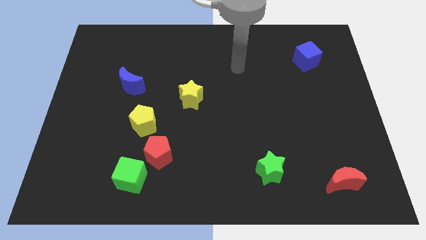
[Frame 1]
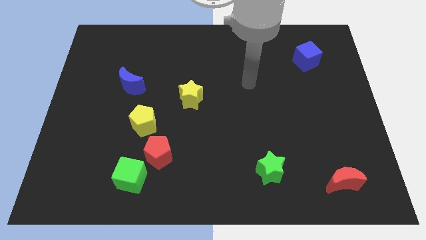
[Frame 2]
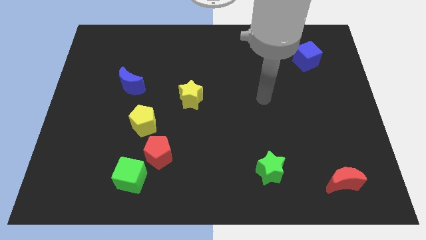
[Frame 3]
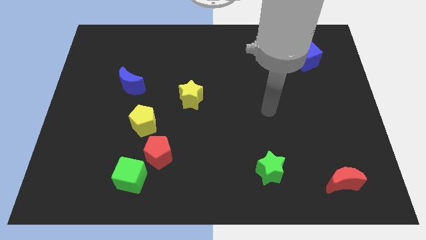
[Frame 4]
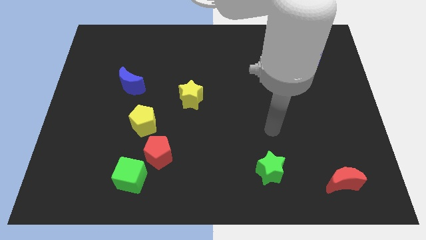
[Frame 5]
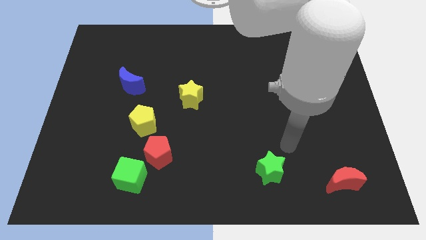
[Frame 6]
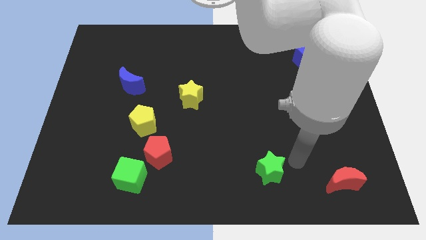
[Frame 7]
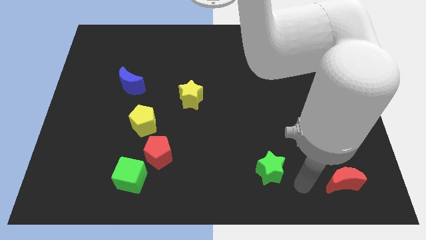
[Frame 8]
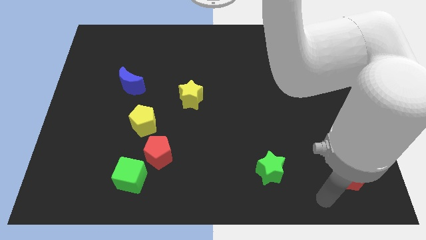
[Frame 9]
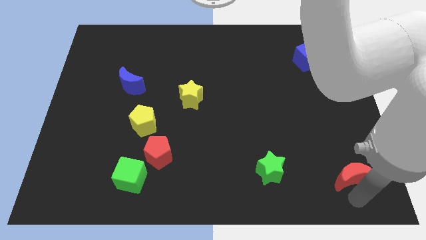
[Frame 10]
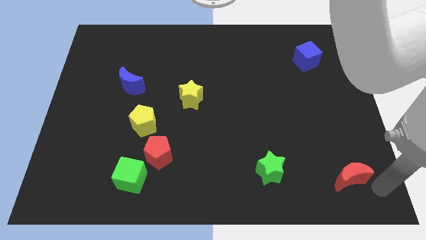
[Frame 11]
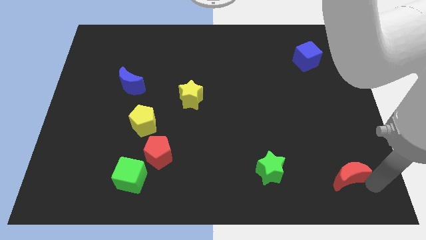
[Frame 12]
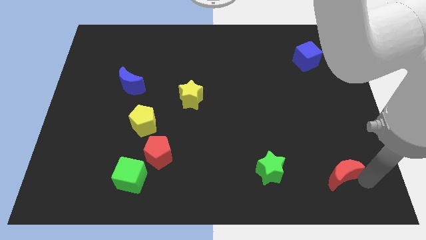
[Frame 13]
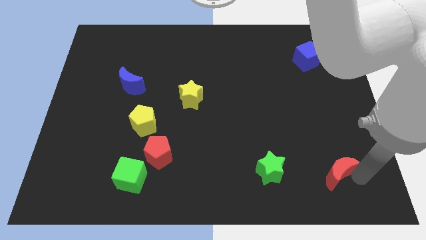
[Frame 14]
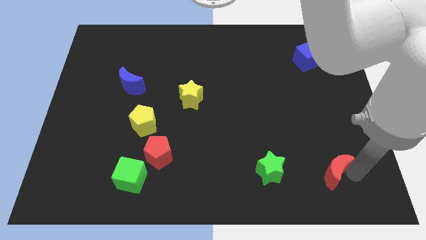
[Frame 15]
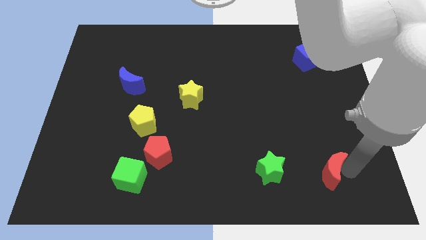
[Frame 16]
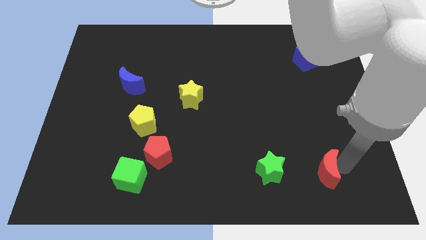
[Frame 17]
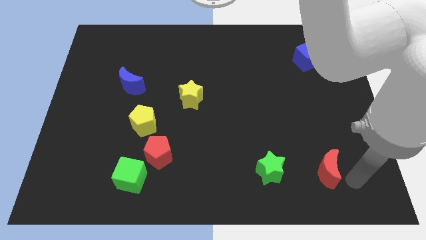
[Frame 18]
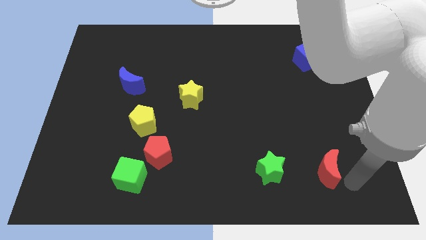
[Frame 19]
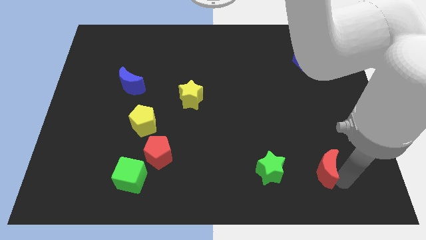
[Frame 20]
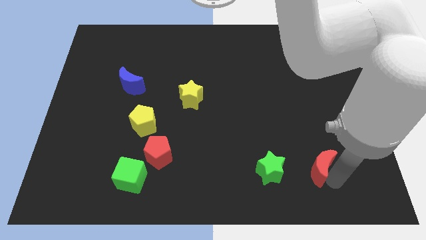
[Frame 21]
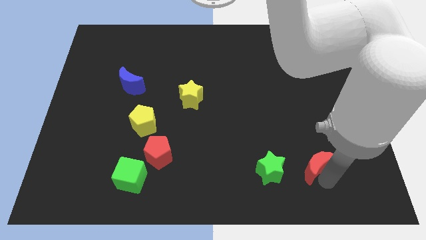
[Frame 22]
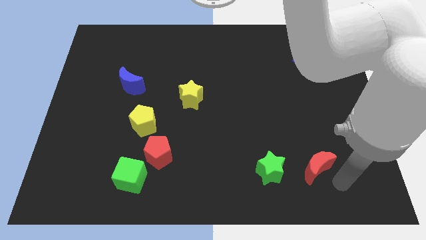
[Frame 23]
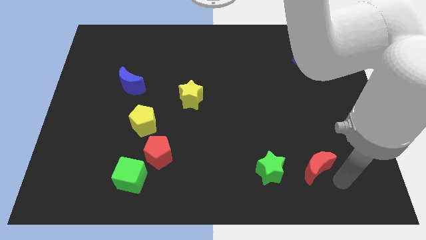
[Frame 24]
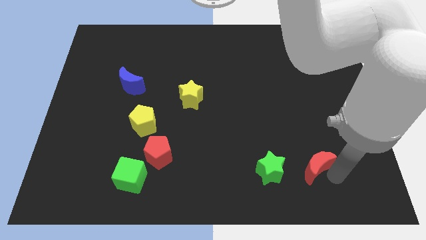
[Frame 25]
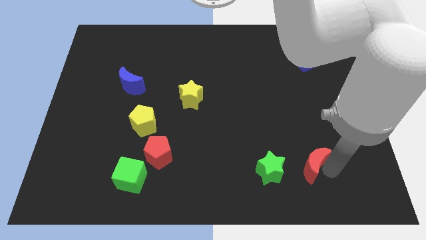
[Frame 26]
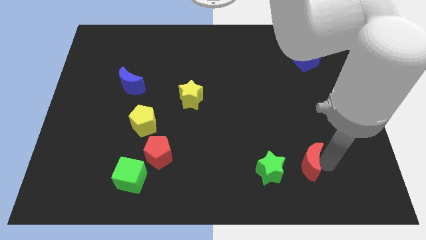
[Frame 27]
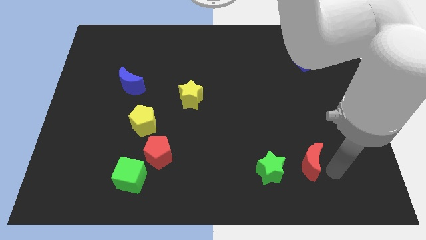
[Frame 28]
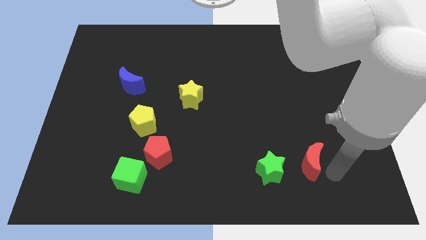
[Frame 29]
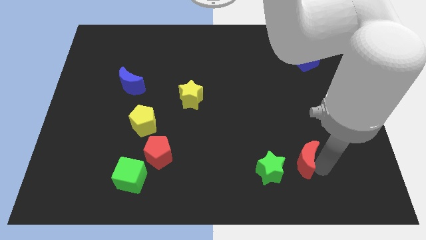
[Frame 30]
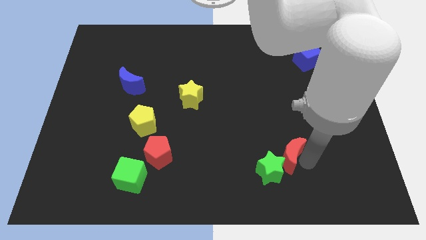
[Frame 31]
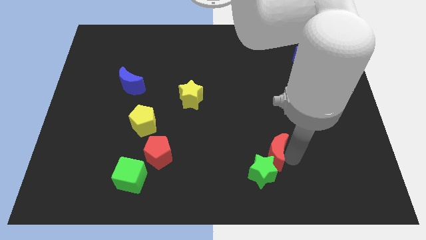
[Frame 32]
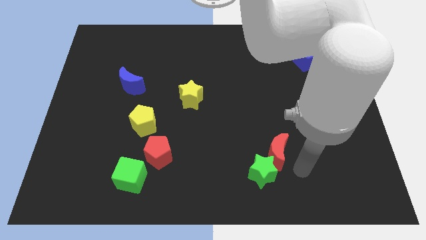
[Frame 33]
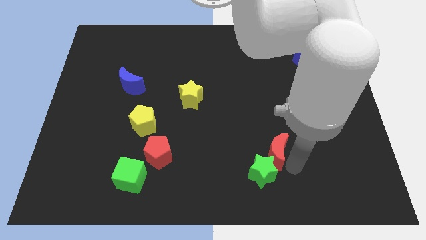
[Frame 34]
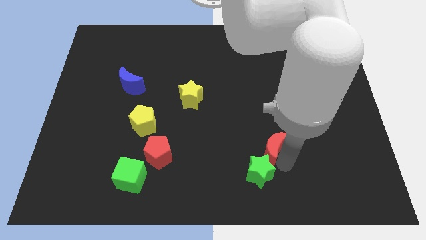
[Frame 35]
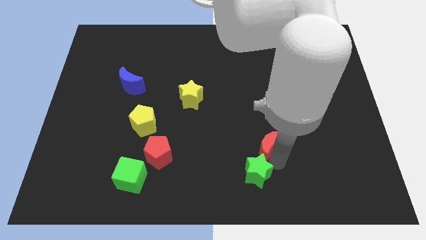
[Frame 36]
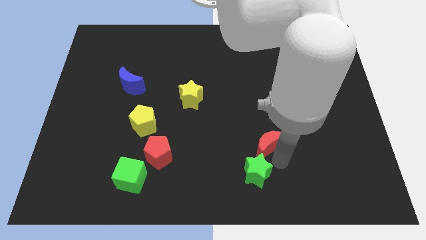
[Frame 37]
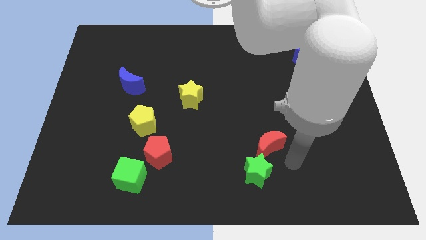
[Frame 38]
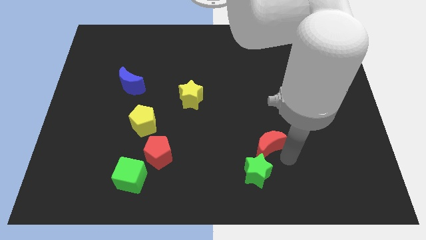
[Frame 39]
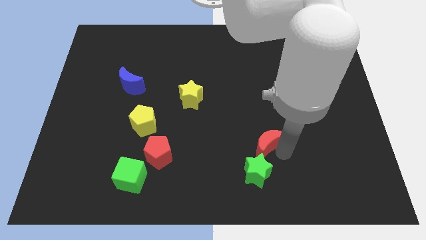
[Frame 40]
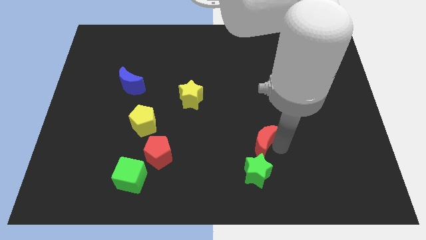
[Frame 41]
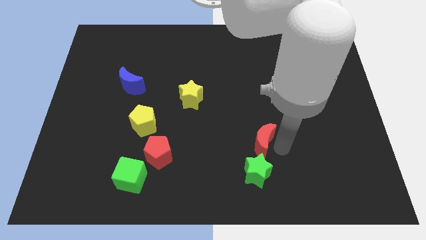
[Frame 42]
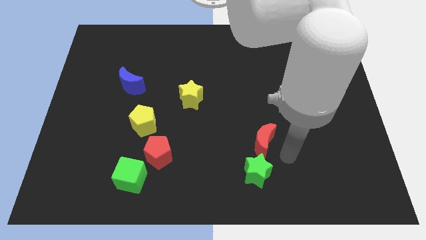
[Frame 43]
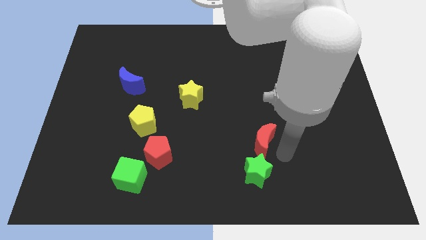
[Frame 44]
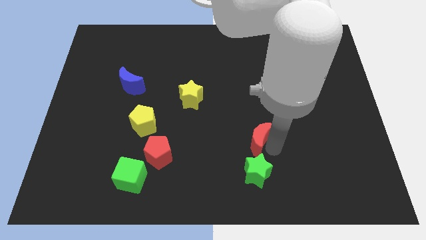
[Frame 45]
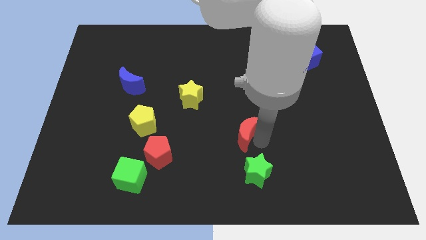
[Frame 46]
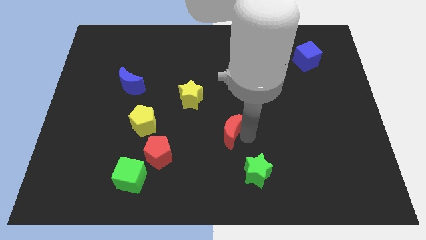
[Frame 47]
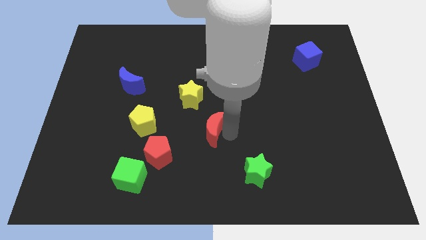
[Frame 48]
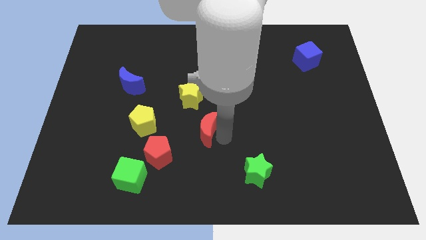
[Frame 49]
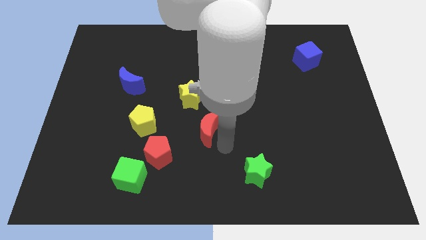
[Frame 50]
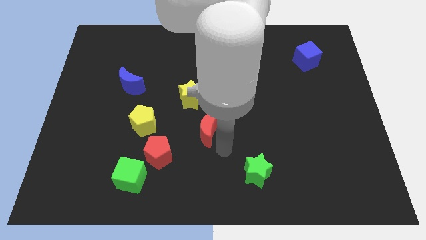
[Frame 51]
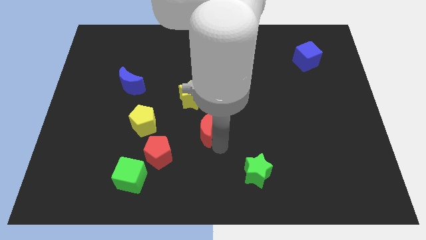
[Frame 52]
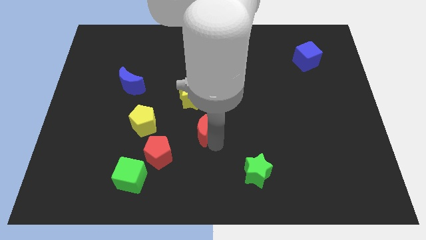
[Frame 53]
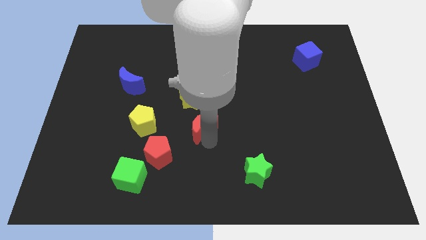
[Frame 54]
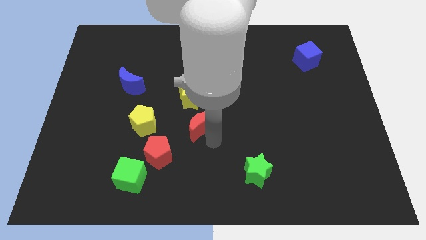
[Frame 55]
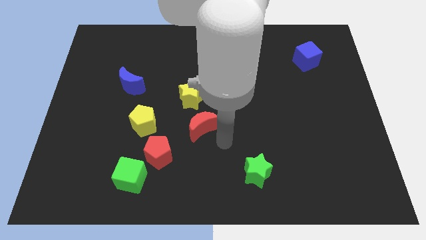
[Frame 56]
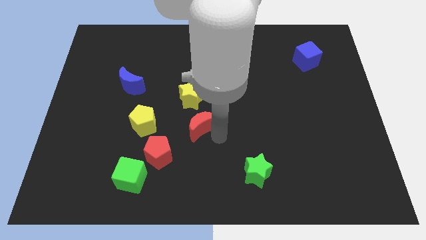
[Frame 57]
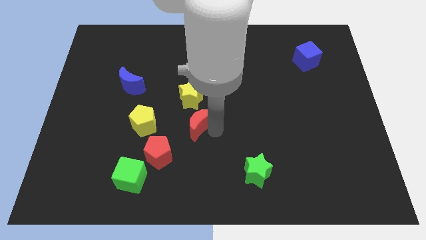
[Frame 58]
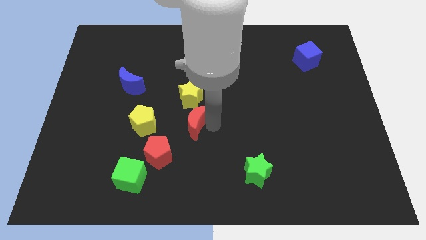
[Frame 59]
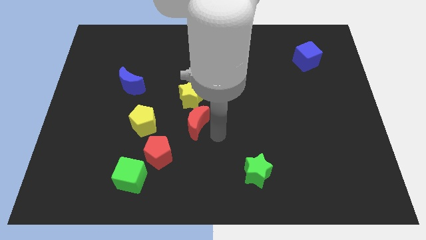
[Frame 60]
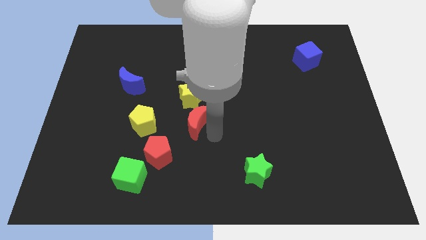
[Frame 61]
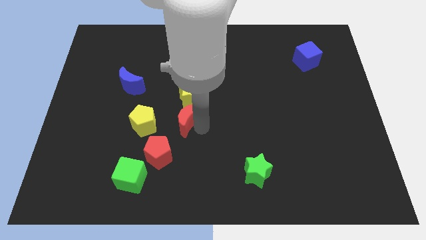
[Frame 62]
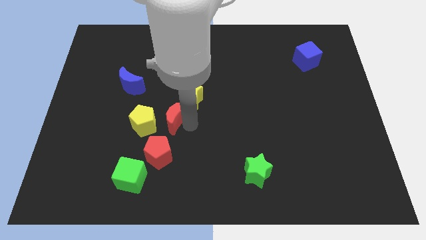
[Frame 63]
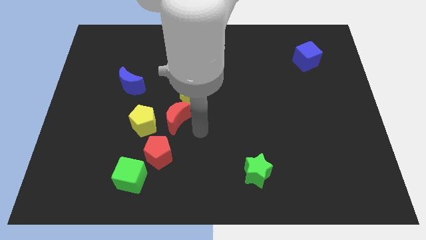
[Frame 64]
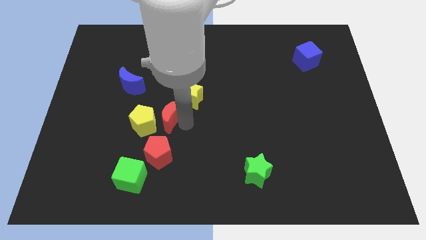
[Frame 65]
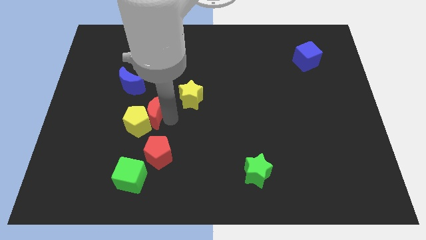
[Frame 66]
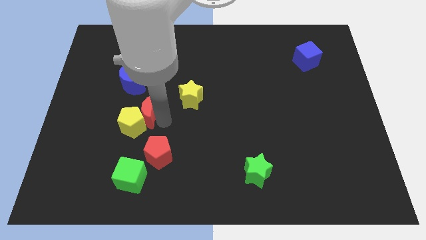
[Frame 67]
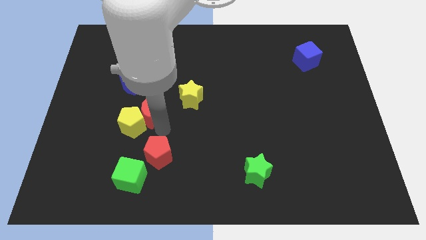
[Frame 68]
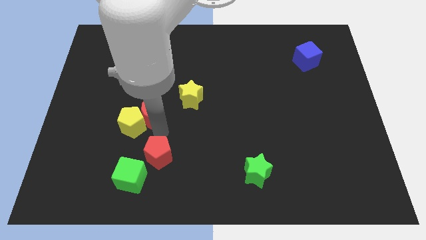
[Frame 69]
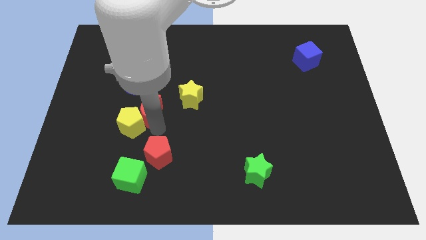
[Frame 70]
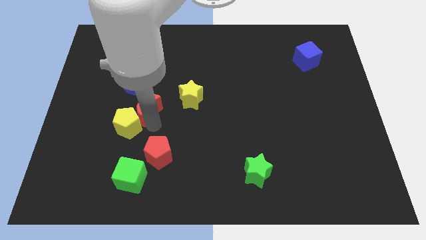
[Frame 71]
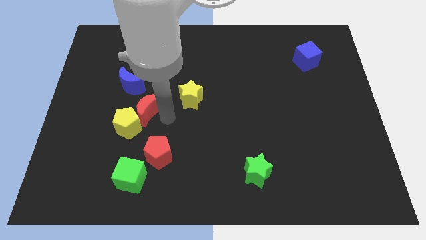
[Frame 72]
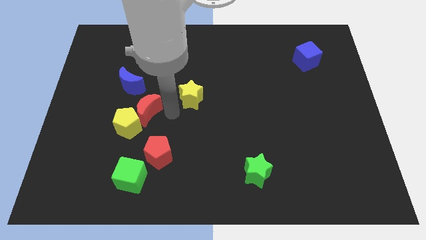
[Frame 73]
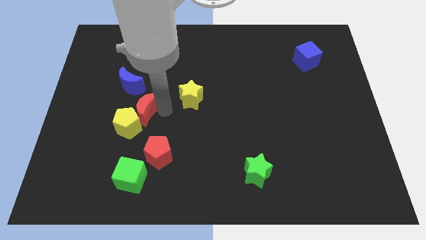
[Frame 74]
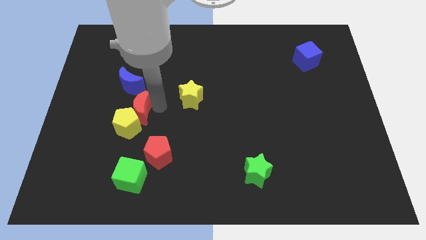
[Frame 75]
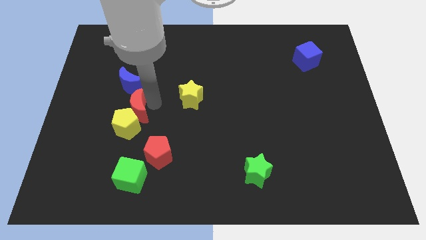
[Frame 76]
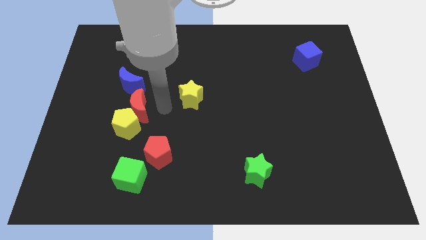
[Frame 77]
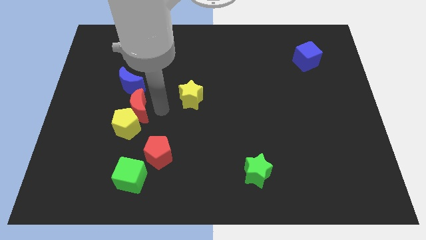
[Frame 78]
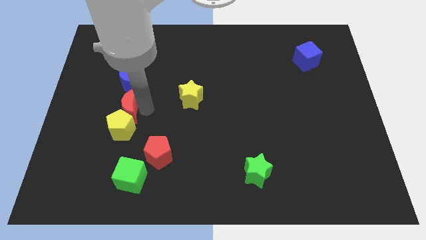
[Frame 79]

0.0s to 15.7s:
push the red moon diagonally up and to the left of the yellow pentagon
